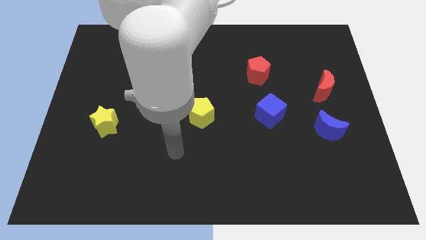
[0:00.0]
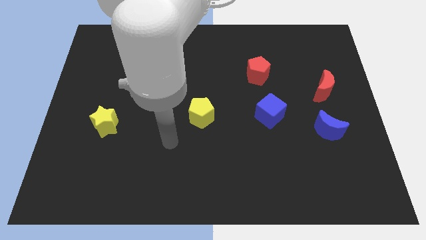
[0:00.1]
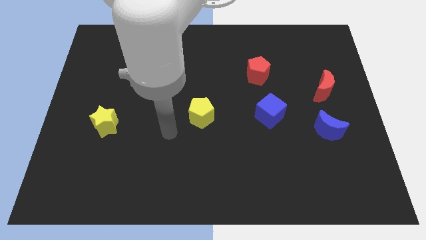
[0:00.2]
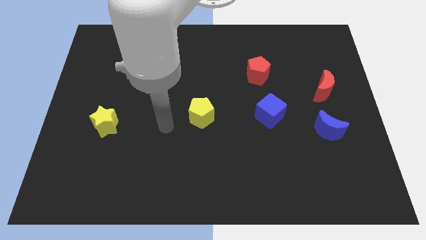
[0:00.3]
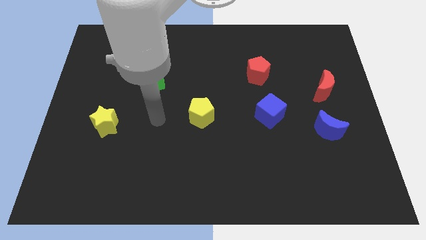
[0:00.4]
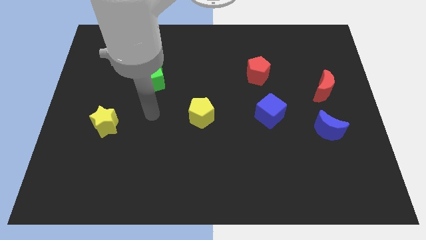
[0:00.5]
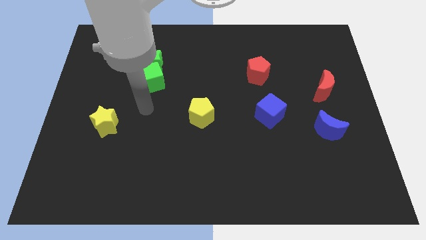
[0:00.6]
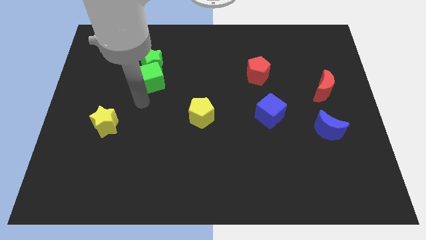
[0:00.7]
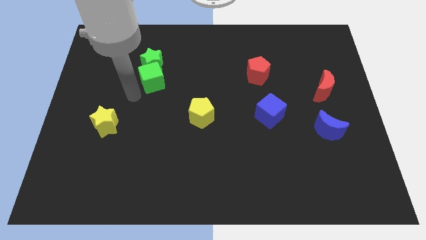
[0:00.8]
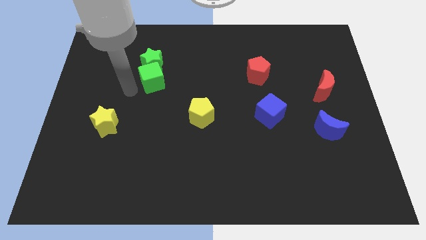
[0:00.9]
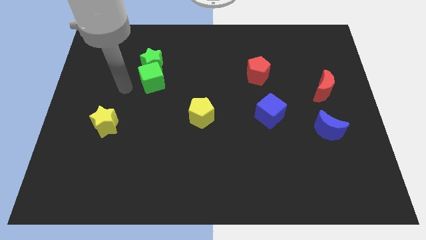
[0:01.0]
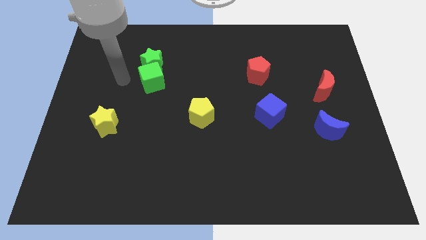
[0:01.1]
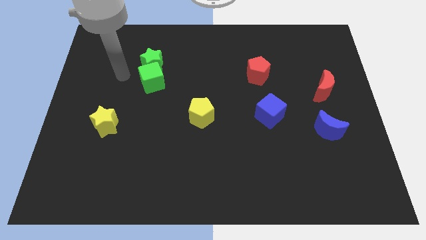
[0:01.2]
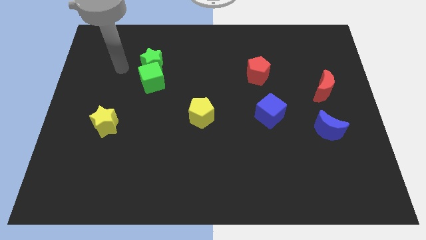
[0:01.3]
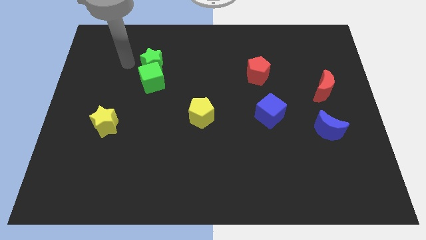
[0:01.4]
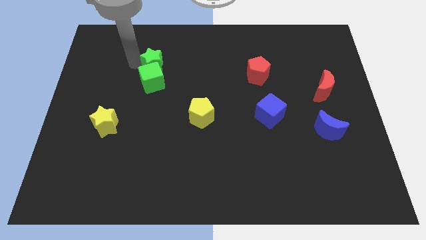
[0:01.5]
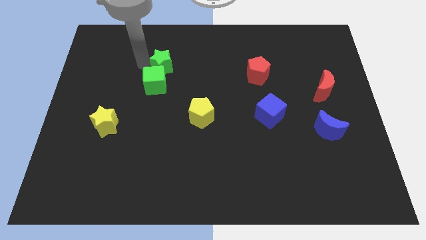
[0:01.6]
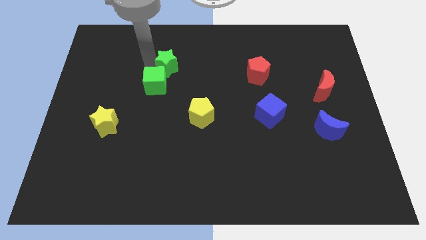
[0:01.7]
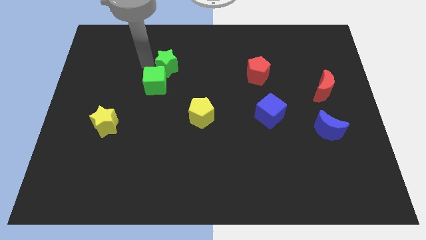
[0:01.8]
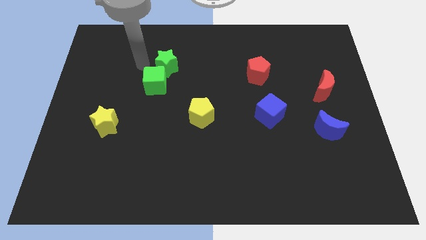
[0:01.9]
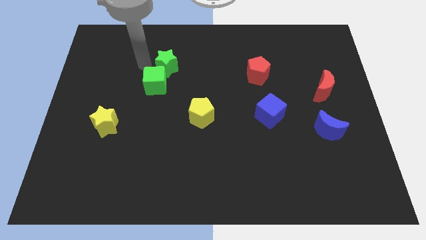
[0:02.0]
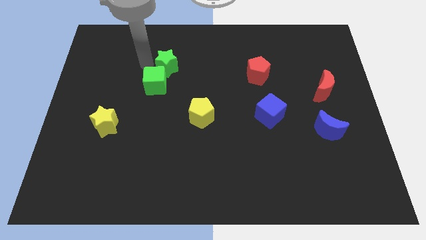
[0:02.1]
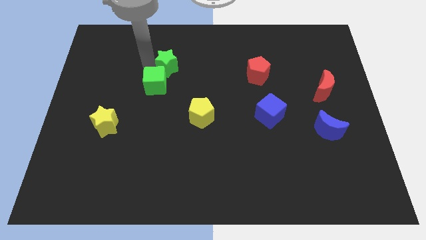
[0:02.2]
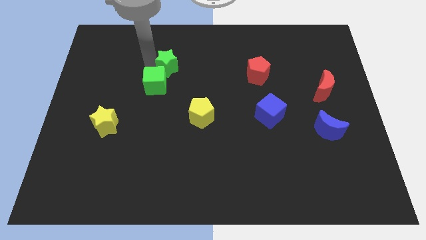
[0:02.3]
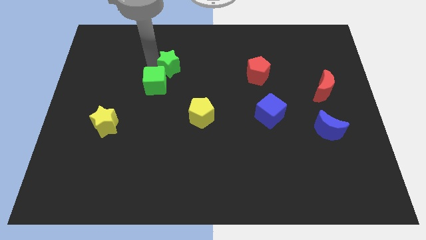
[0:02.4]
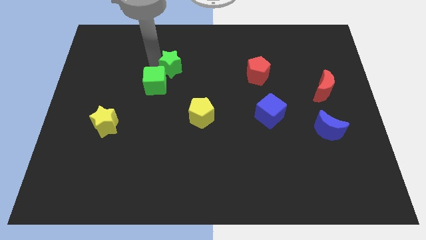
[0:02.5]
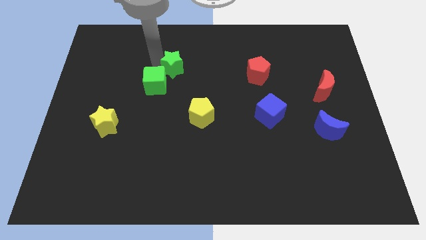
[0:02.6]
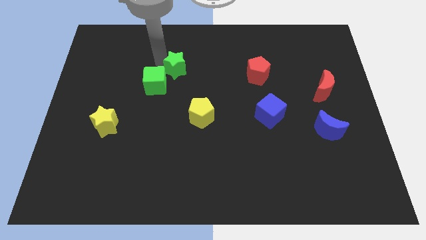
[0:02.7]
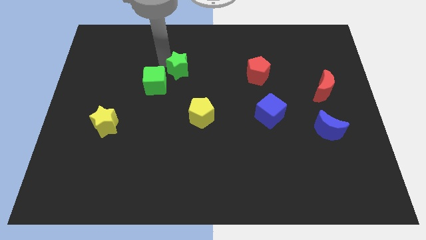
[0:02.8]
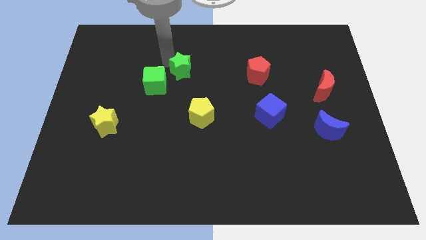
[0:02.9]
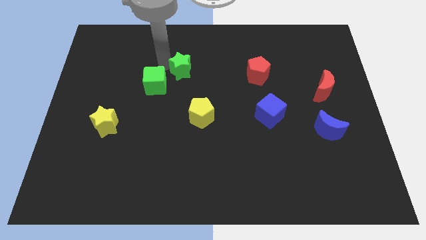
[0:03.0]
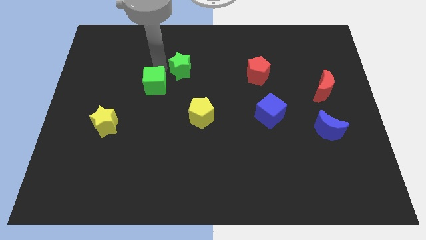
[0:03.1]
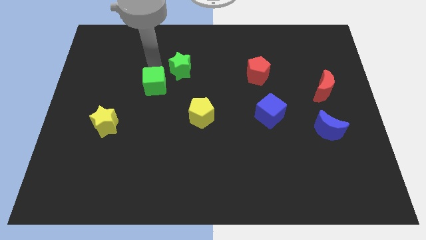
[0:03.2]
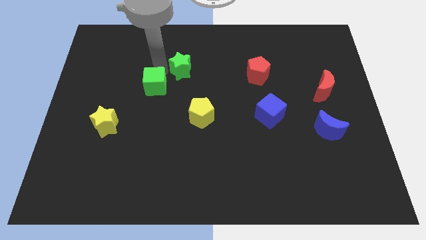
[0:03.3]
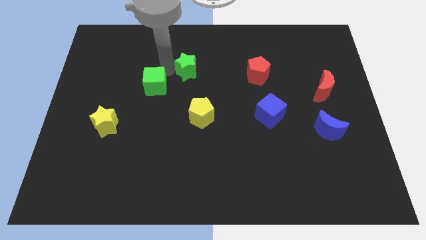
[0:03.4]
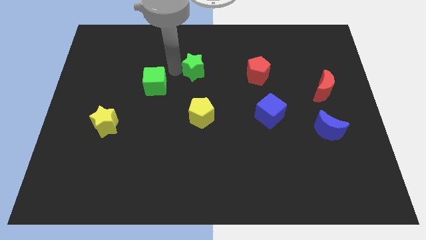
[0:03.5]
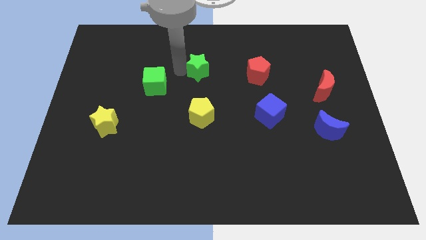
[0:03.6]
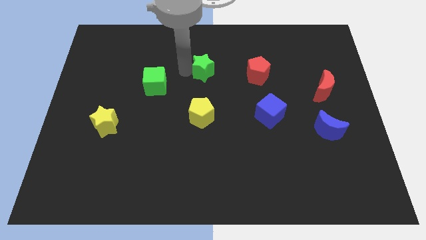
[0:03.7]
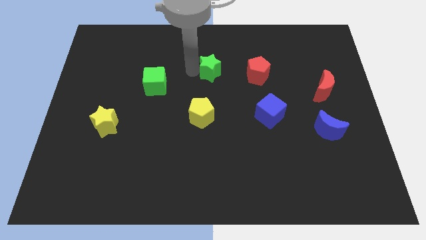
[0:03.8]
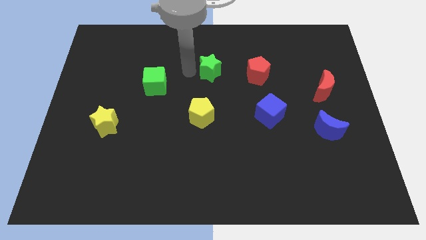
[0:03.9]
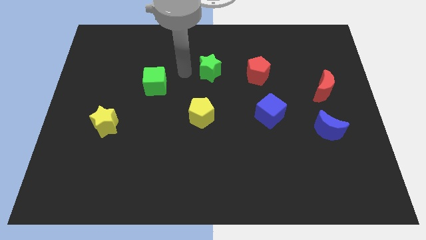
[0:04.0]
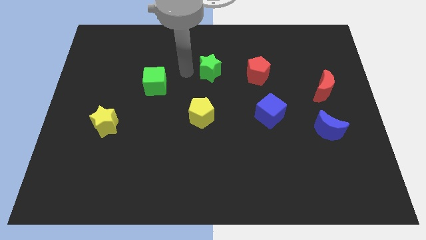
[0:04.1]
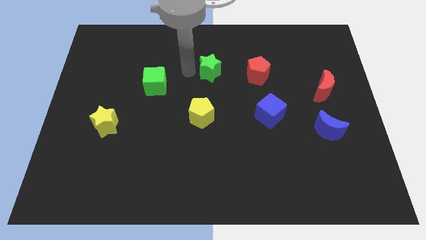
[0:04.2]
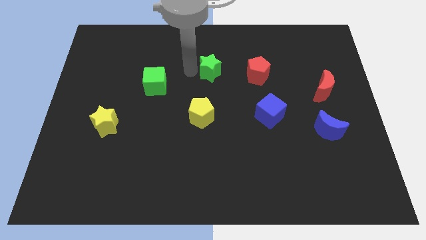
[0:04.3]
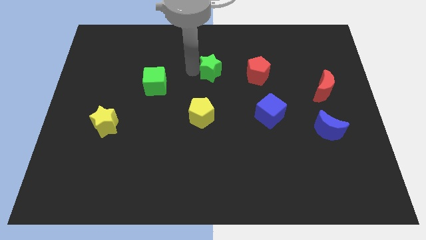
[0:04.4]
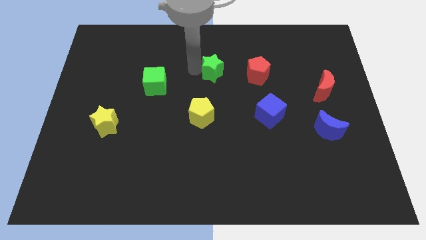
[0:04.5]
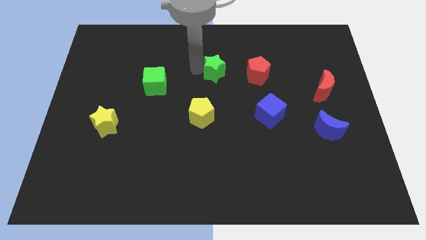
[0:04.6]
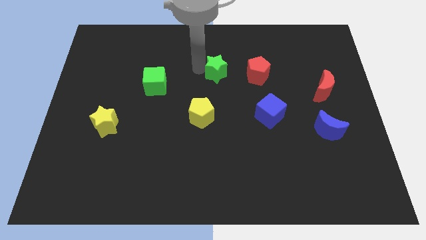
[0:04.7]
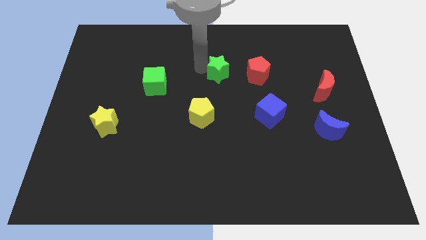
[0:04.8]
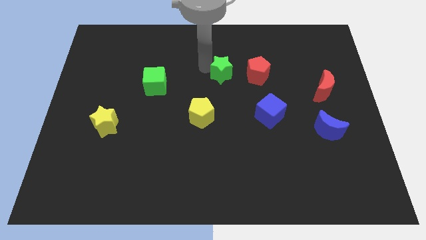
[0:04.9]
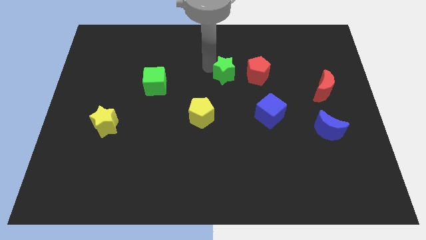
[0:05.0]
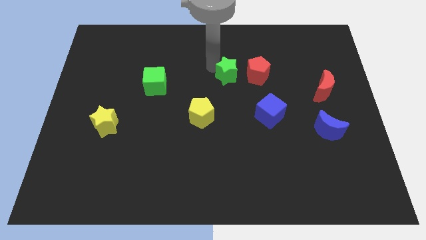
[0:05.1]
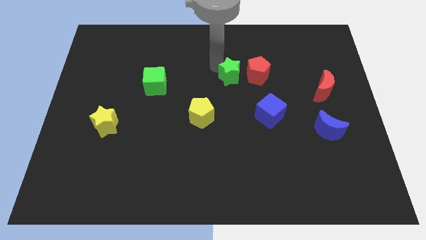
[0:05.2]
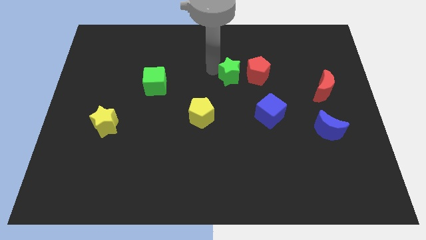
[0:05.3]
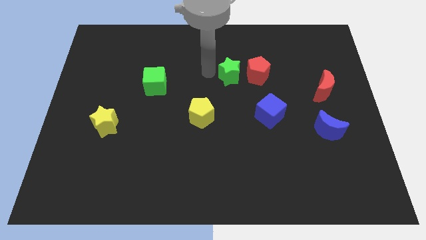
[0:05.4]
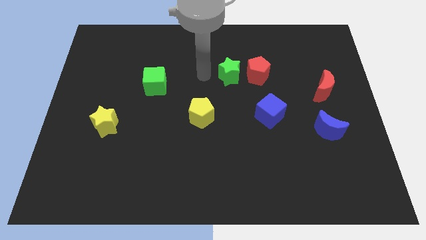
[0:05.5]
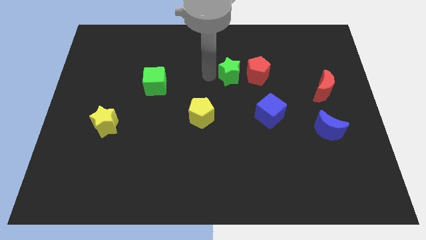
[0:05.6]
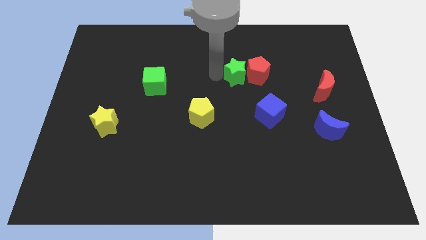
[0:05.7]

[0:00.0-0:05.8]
put the green star to the red pentagon

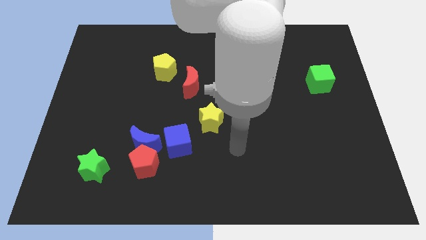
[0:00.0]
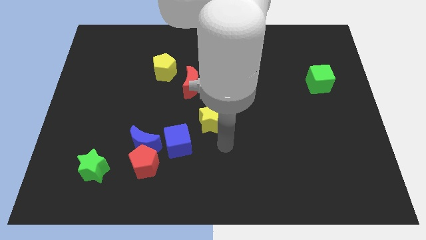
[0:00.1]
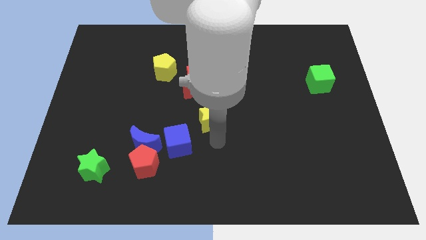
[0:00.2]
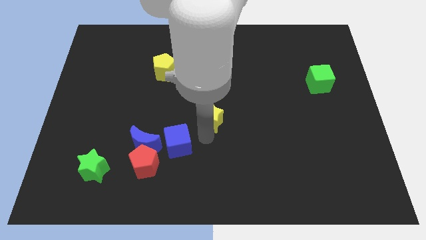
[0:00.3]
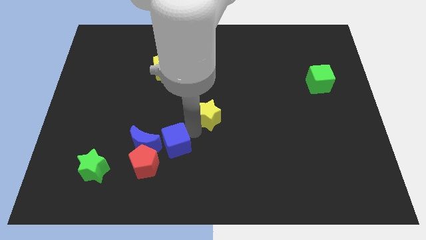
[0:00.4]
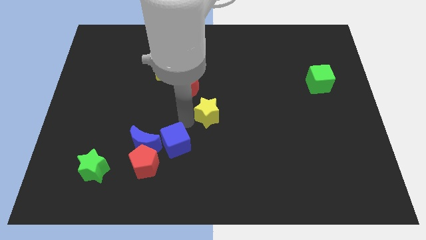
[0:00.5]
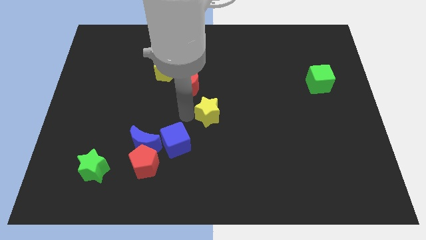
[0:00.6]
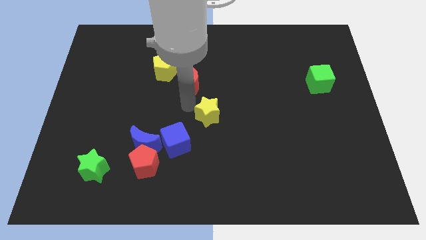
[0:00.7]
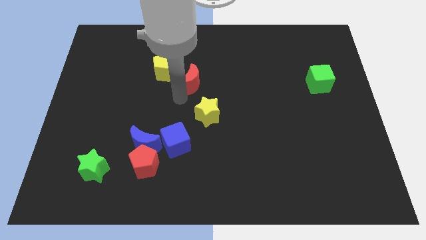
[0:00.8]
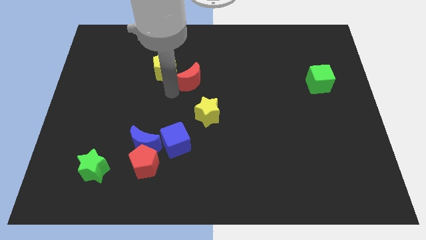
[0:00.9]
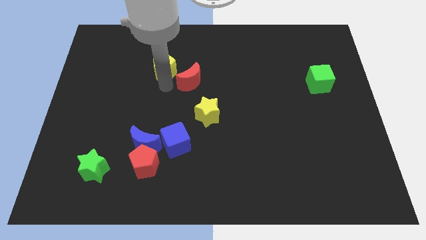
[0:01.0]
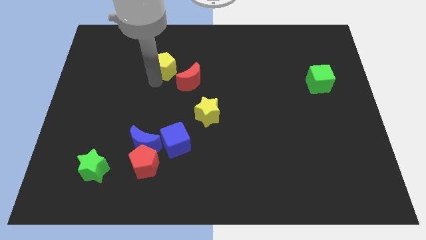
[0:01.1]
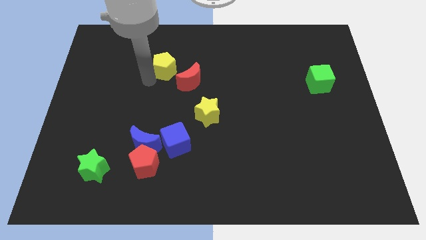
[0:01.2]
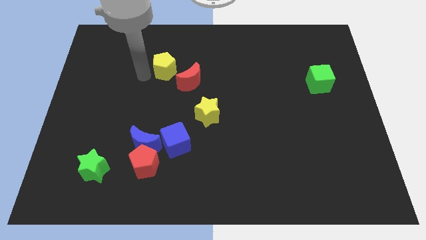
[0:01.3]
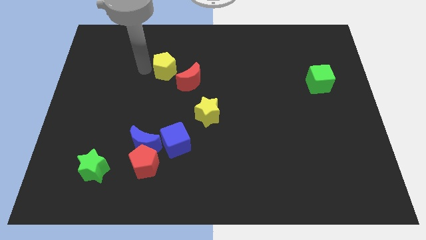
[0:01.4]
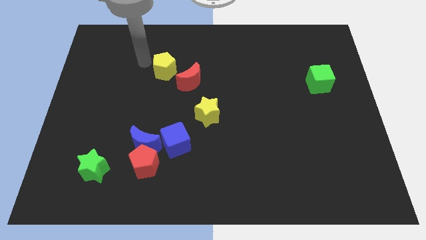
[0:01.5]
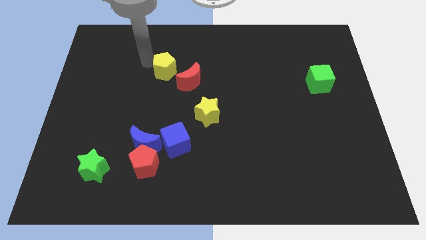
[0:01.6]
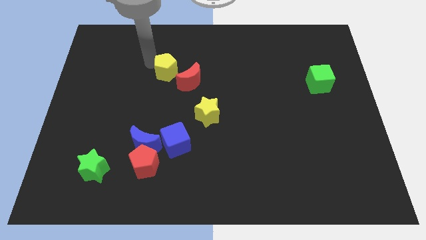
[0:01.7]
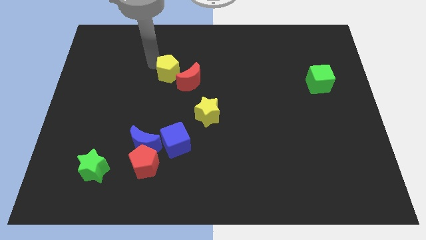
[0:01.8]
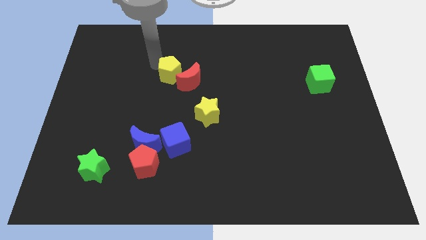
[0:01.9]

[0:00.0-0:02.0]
slide the yellow pentagon towards the red moon
